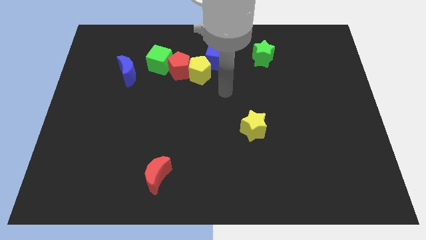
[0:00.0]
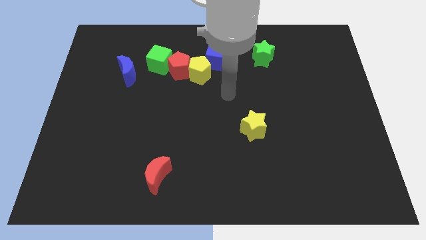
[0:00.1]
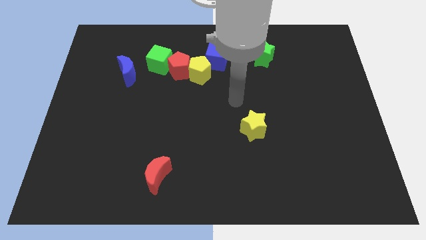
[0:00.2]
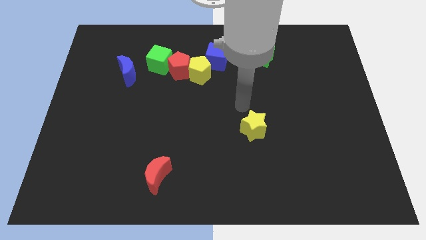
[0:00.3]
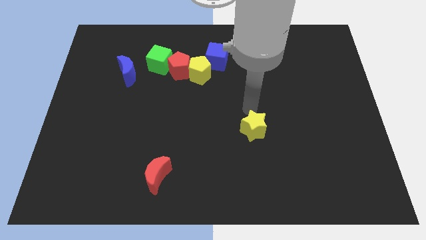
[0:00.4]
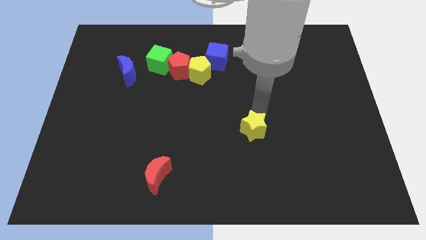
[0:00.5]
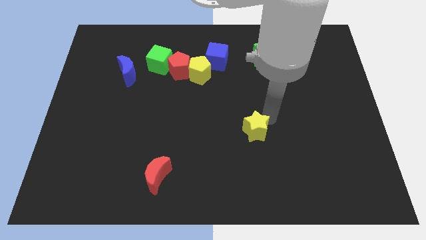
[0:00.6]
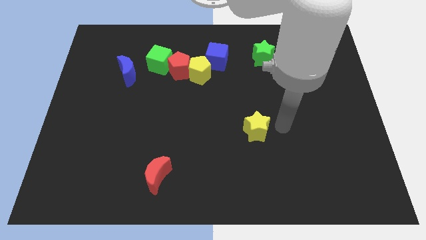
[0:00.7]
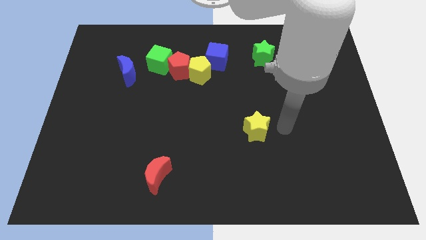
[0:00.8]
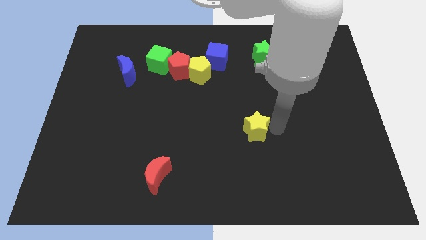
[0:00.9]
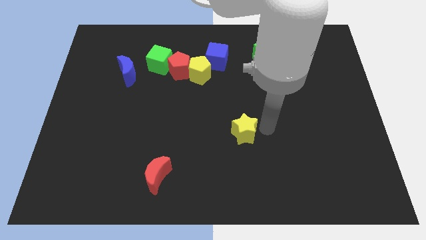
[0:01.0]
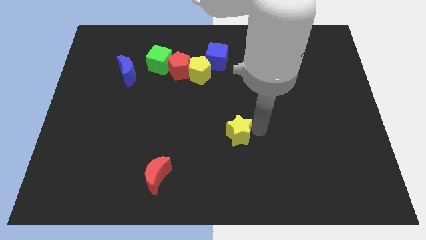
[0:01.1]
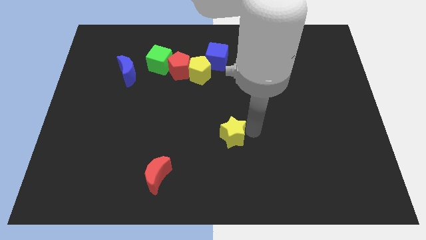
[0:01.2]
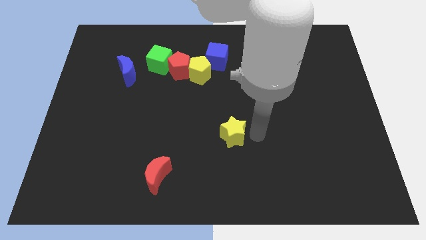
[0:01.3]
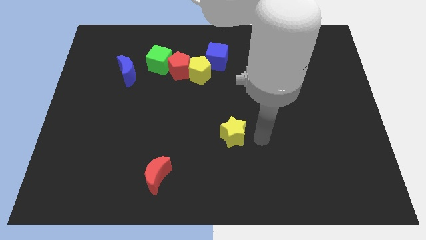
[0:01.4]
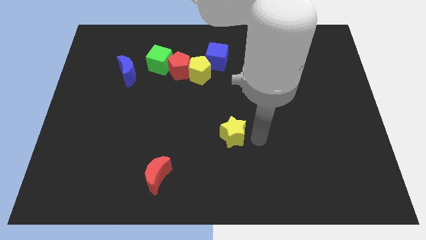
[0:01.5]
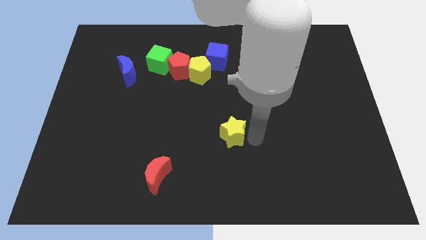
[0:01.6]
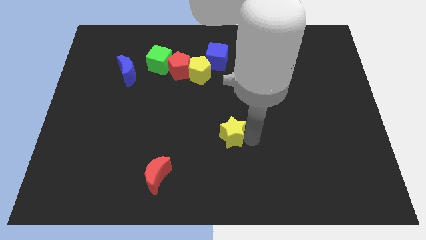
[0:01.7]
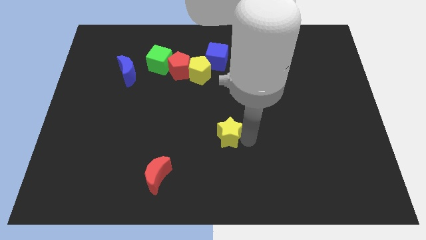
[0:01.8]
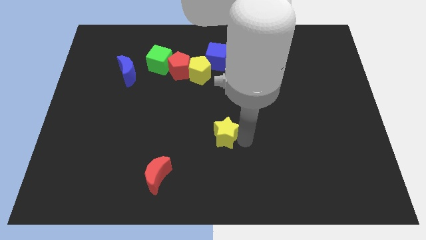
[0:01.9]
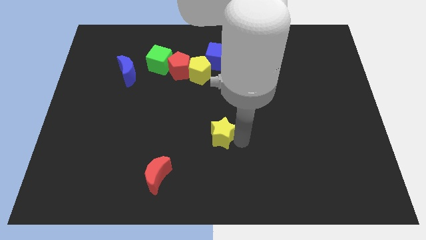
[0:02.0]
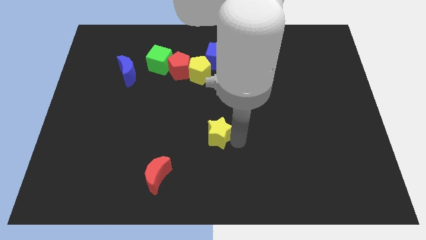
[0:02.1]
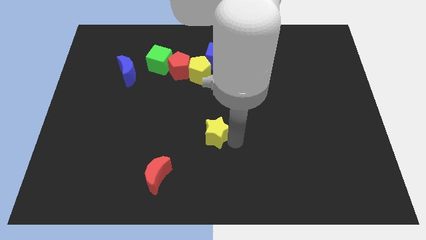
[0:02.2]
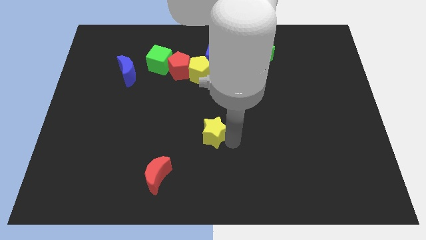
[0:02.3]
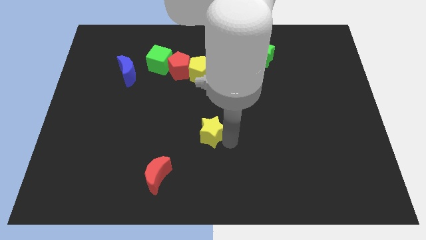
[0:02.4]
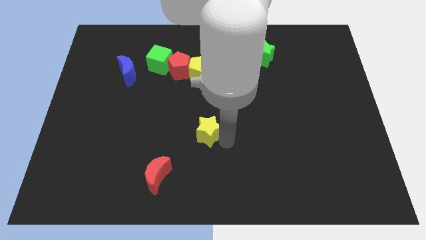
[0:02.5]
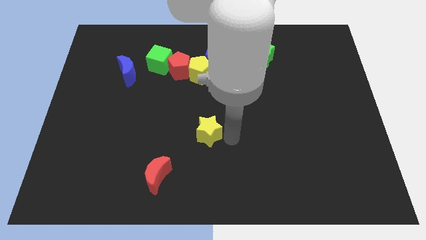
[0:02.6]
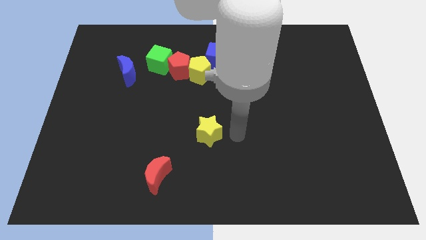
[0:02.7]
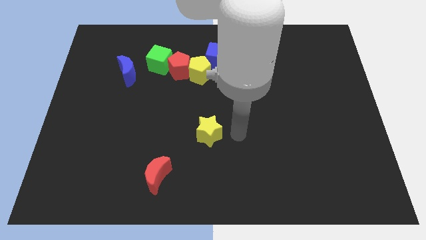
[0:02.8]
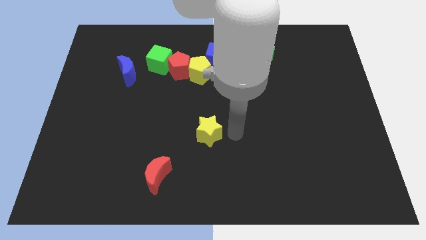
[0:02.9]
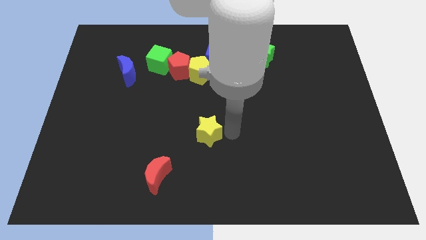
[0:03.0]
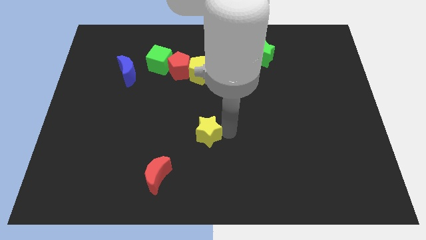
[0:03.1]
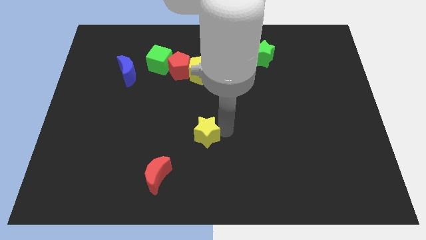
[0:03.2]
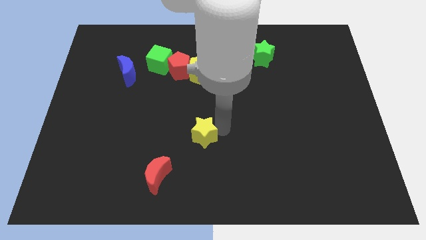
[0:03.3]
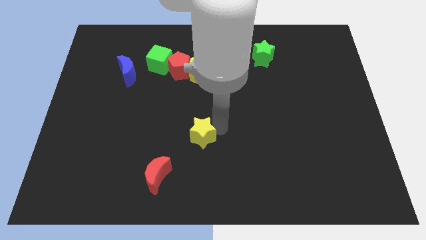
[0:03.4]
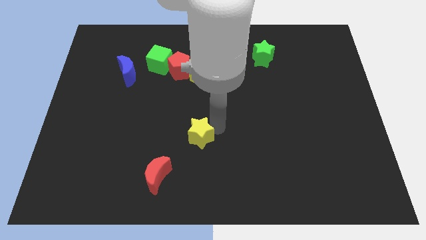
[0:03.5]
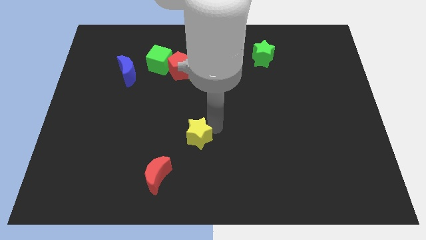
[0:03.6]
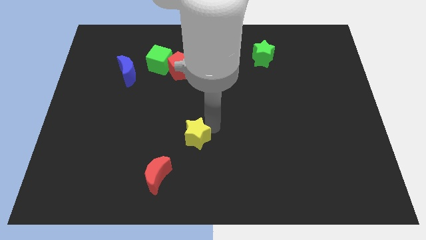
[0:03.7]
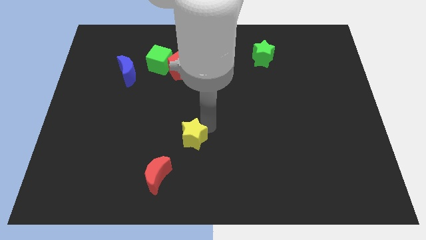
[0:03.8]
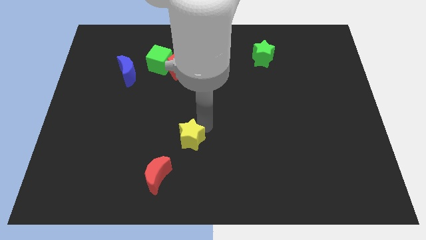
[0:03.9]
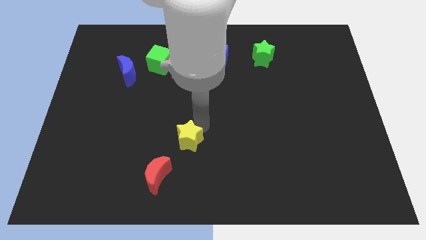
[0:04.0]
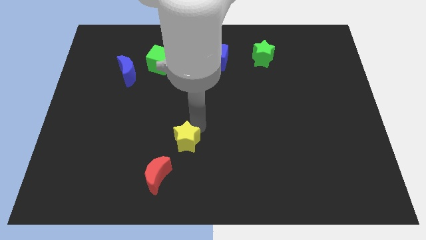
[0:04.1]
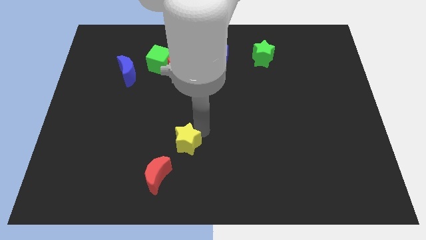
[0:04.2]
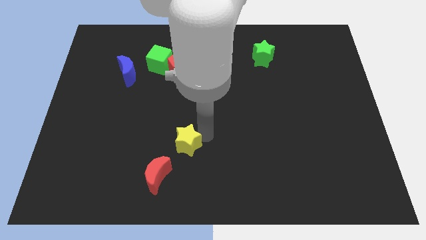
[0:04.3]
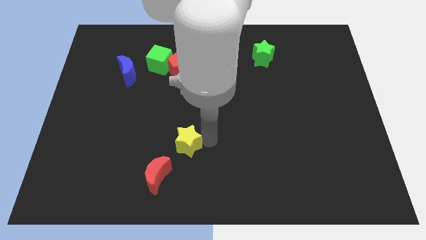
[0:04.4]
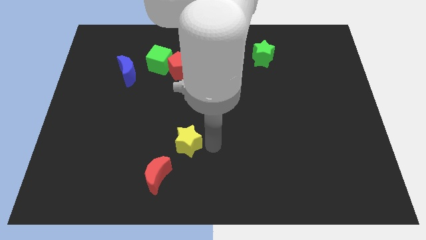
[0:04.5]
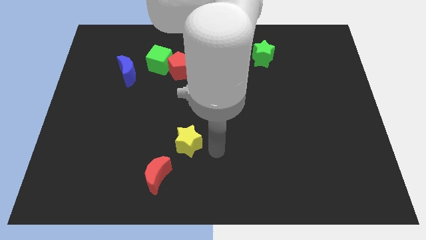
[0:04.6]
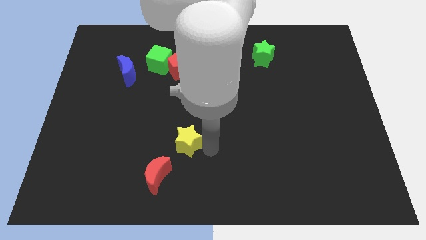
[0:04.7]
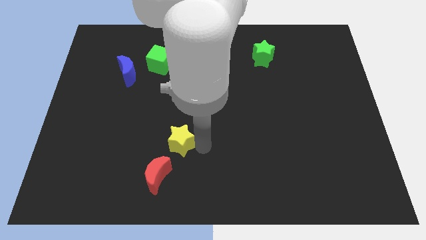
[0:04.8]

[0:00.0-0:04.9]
put the yellow star to the top side of the red moon

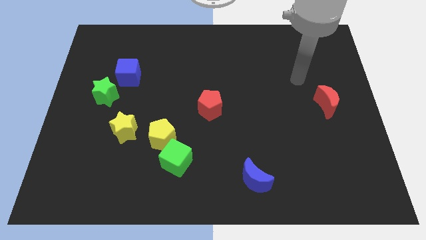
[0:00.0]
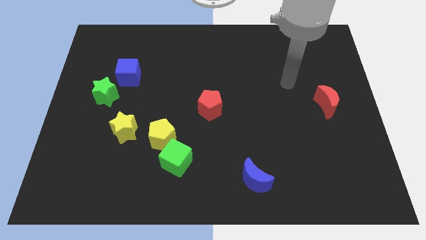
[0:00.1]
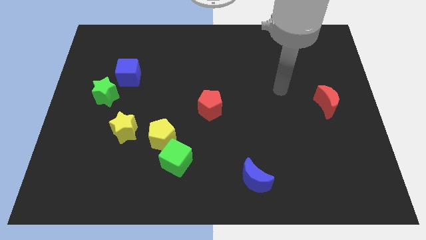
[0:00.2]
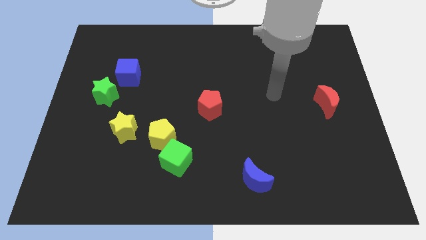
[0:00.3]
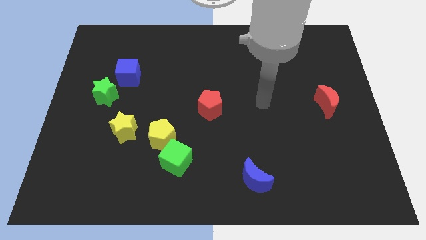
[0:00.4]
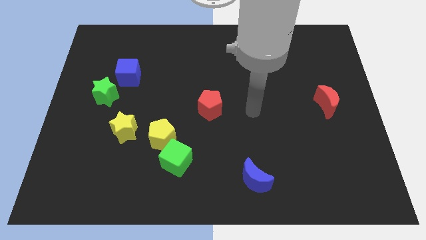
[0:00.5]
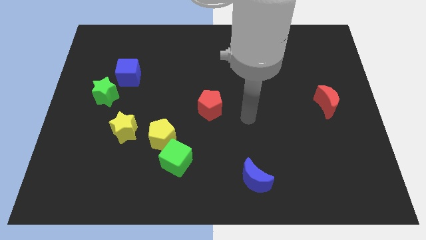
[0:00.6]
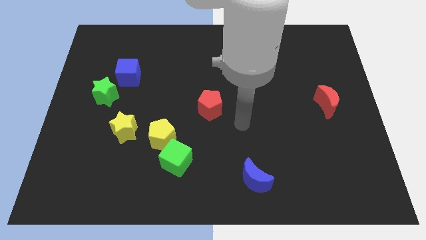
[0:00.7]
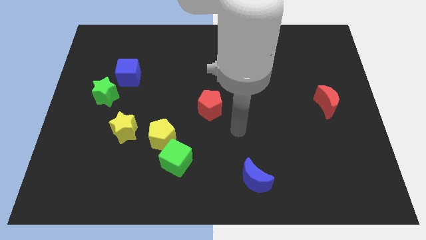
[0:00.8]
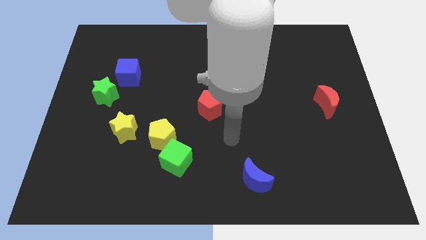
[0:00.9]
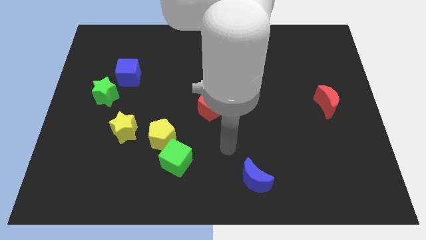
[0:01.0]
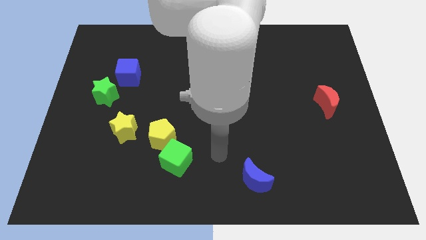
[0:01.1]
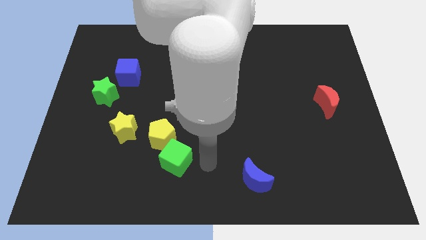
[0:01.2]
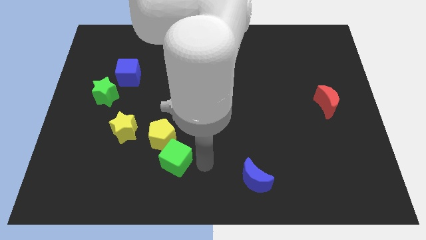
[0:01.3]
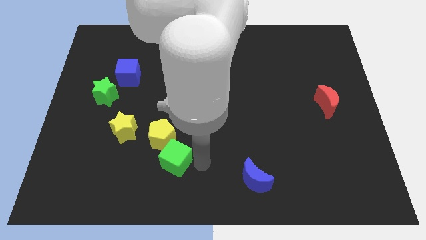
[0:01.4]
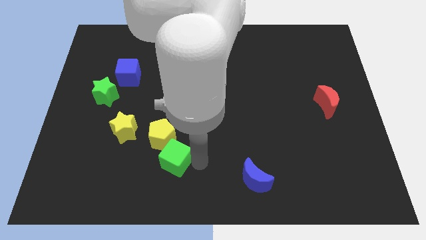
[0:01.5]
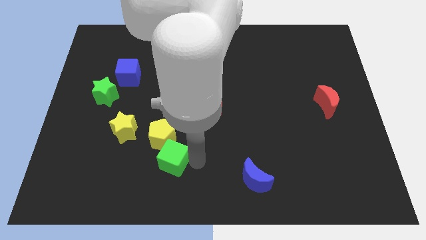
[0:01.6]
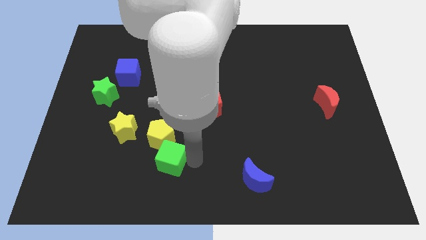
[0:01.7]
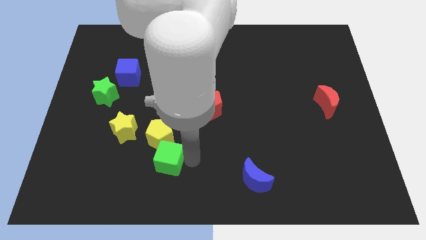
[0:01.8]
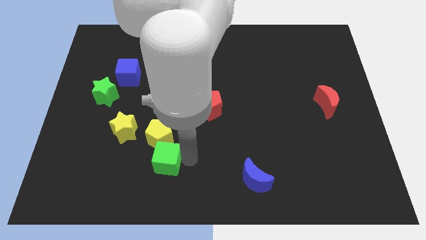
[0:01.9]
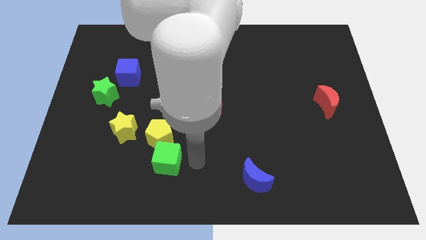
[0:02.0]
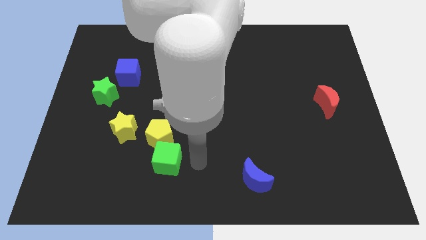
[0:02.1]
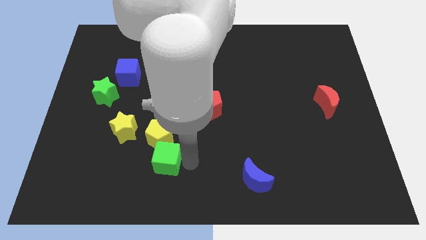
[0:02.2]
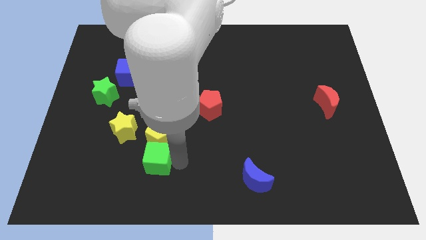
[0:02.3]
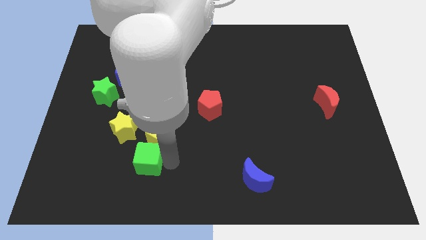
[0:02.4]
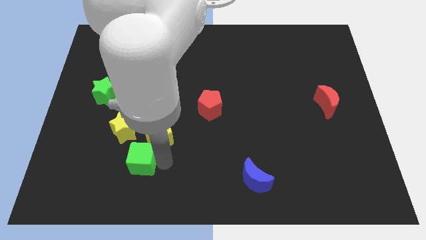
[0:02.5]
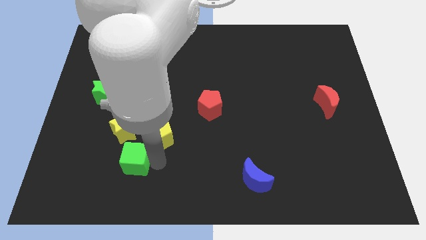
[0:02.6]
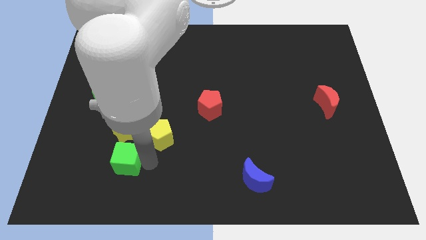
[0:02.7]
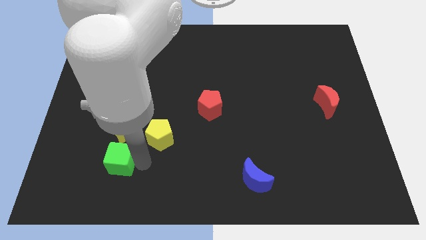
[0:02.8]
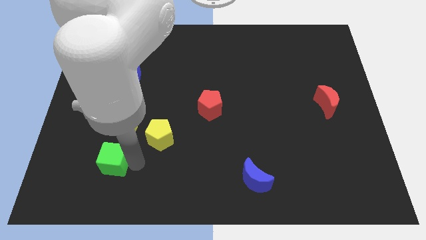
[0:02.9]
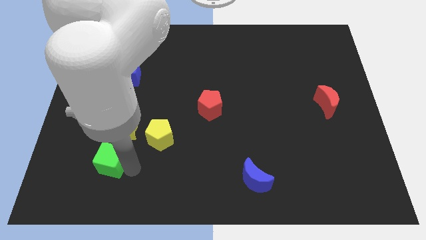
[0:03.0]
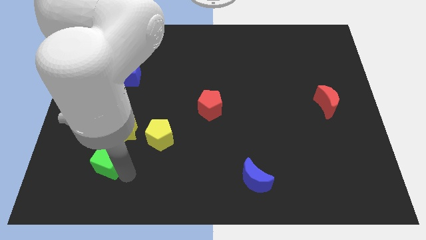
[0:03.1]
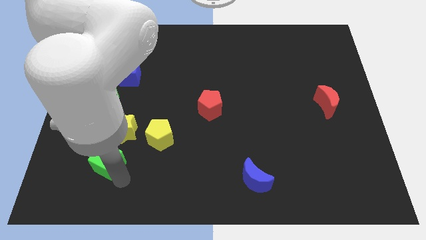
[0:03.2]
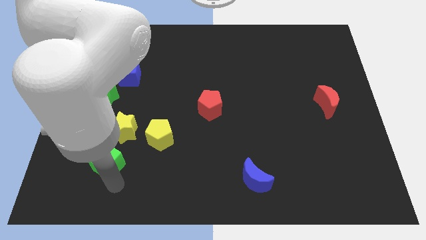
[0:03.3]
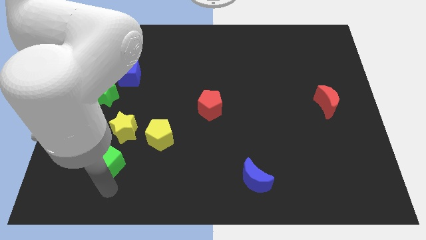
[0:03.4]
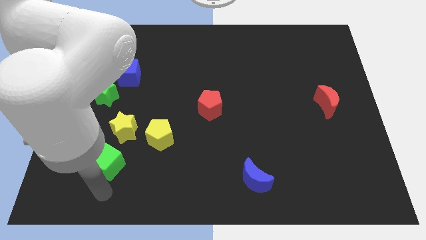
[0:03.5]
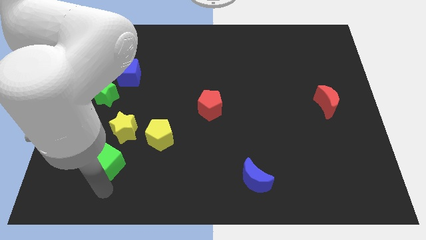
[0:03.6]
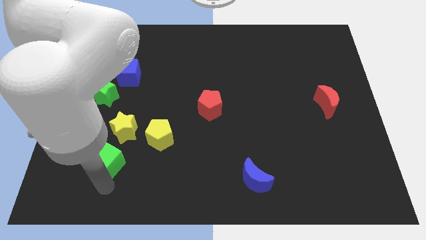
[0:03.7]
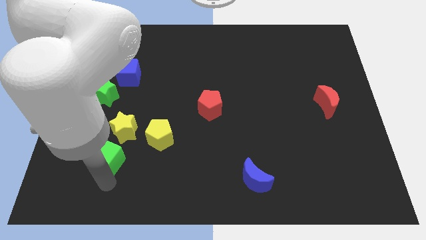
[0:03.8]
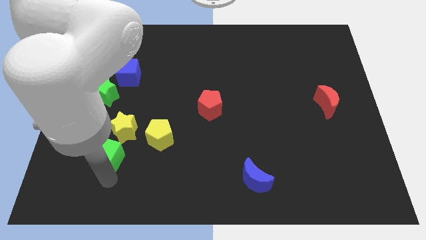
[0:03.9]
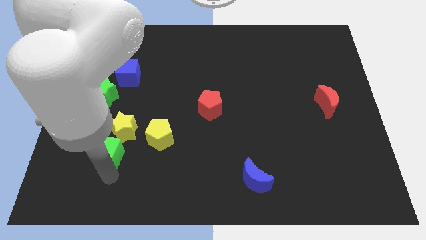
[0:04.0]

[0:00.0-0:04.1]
put the green cube to the left of the yellow pentagon
